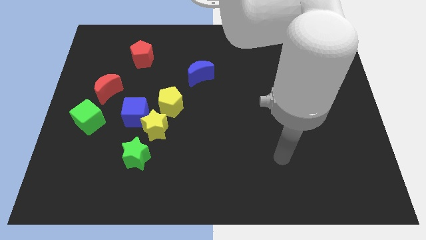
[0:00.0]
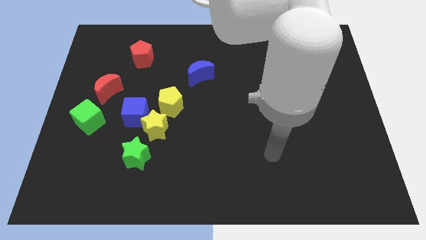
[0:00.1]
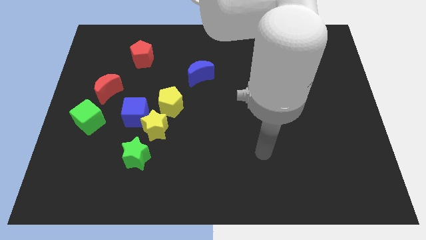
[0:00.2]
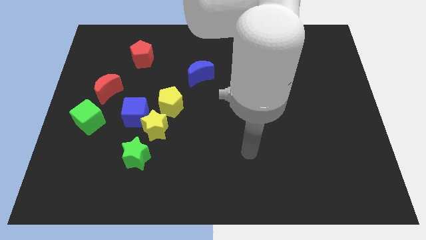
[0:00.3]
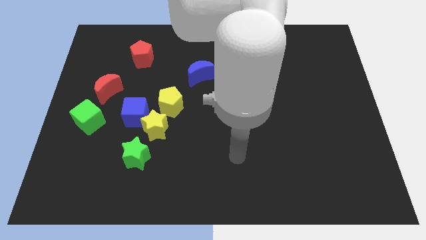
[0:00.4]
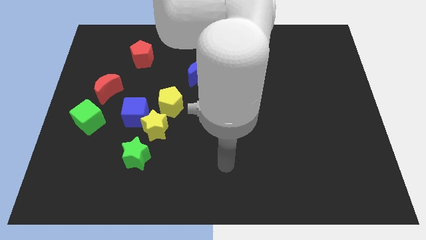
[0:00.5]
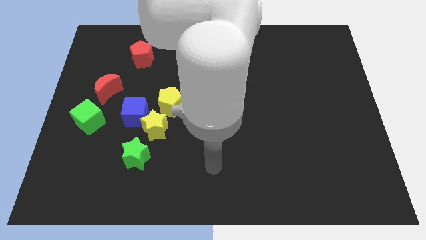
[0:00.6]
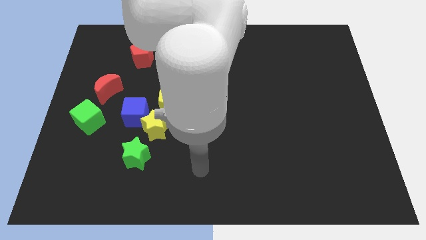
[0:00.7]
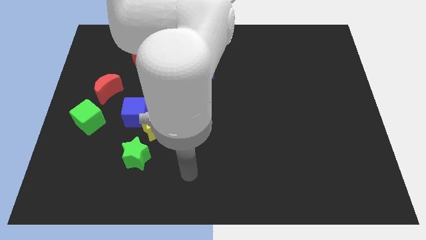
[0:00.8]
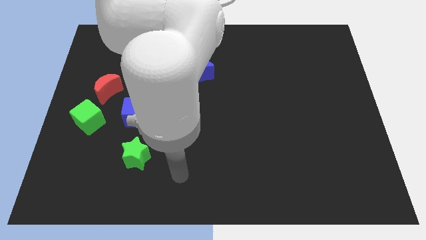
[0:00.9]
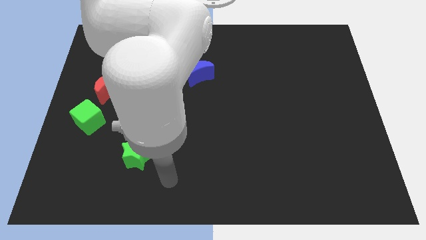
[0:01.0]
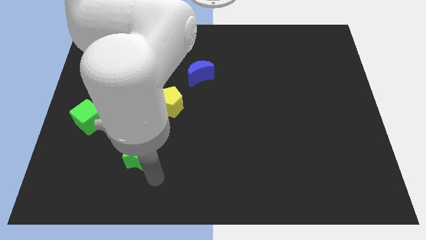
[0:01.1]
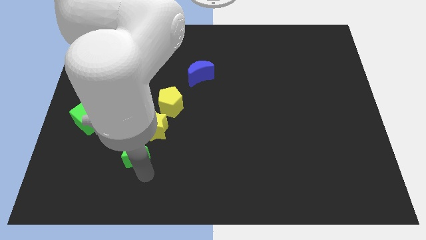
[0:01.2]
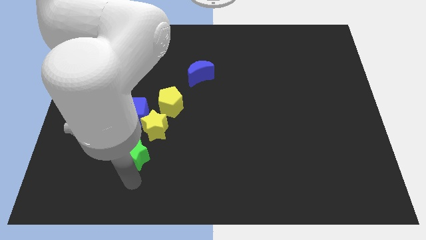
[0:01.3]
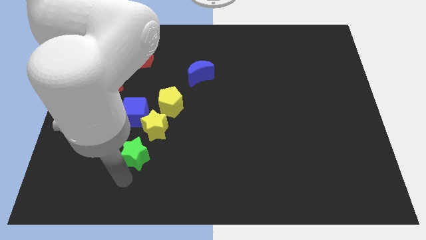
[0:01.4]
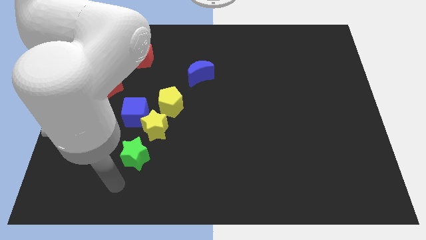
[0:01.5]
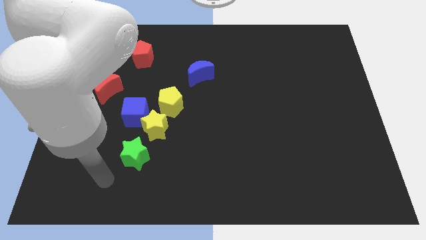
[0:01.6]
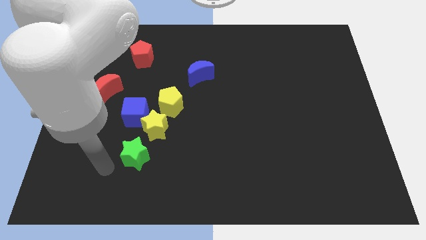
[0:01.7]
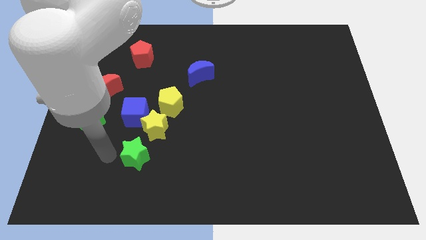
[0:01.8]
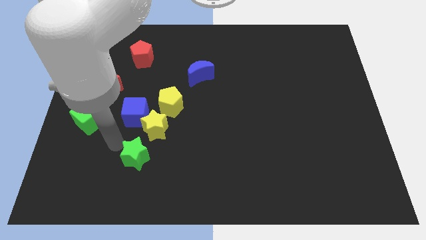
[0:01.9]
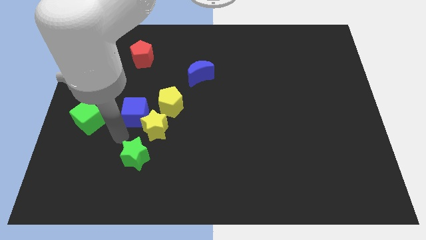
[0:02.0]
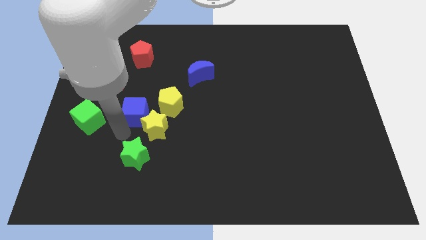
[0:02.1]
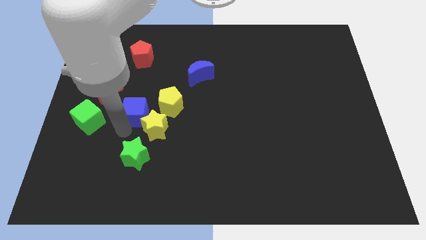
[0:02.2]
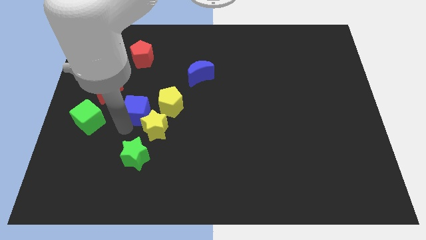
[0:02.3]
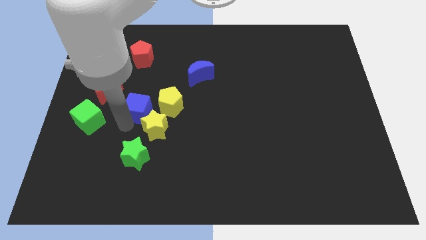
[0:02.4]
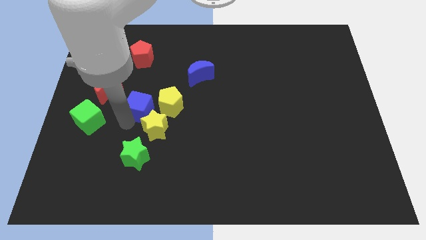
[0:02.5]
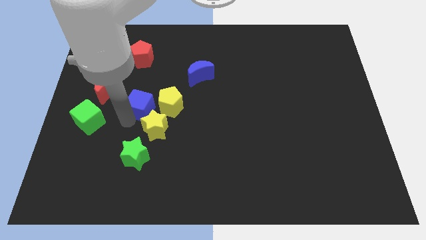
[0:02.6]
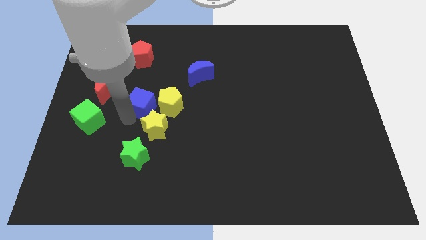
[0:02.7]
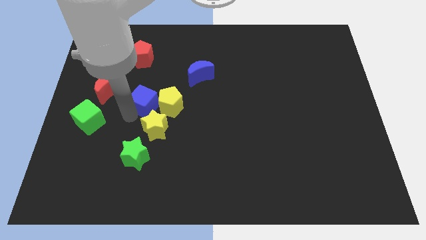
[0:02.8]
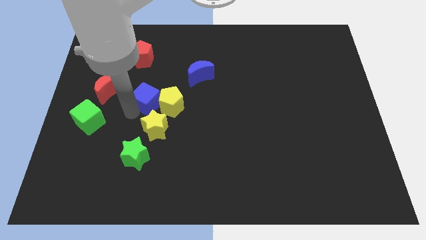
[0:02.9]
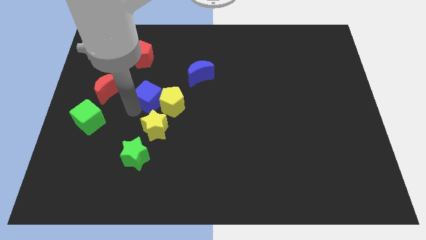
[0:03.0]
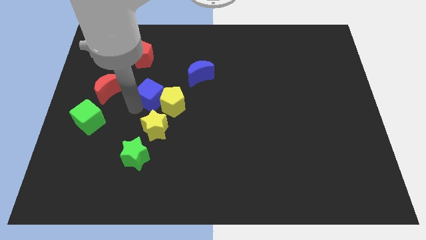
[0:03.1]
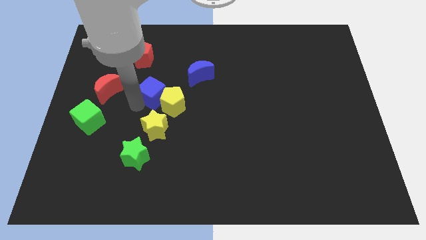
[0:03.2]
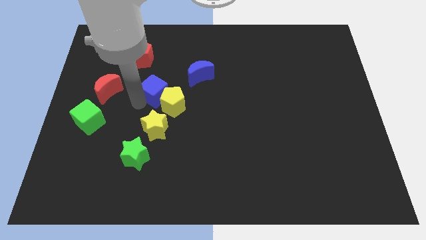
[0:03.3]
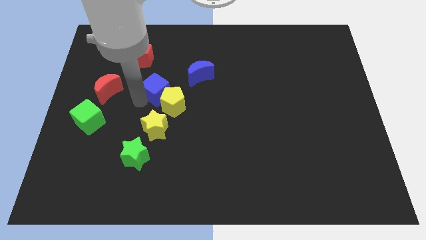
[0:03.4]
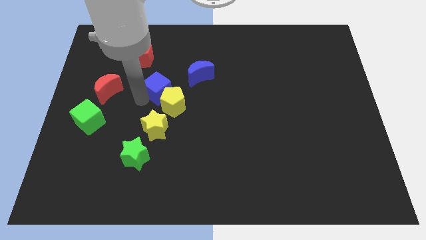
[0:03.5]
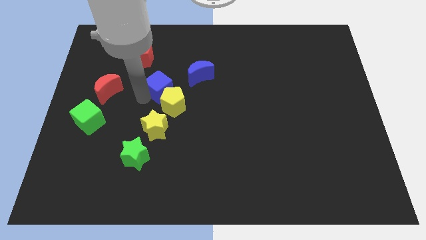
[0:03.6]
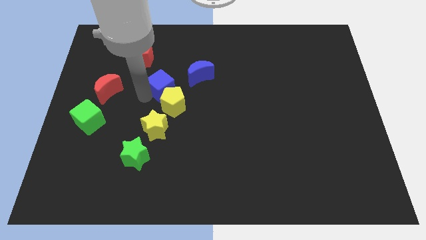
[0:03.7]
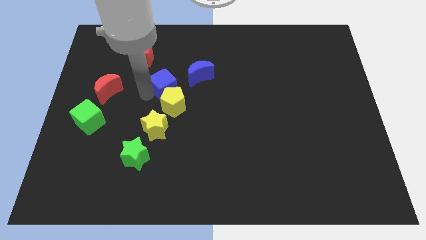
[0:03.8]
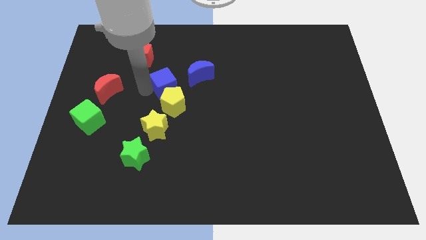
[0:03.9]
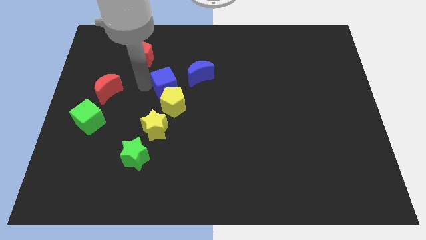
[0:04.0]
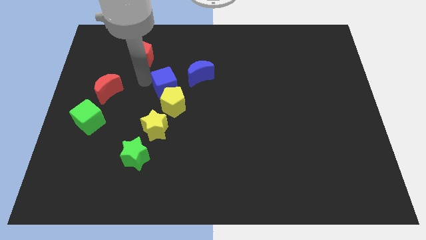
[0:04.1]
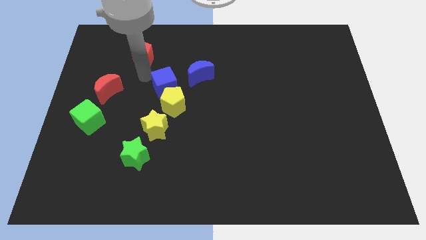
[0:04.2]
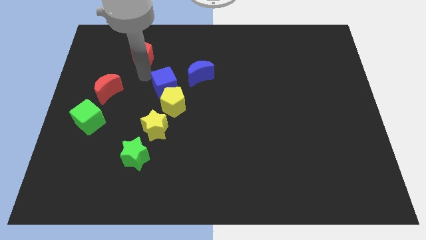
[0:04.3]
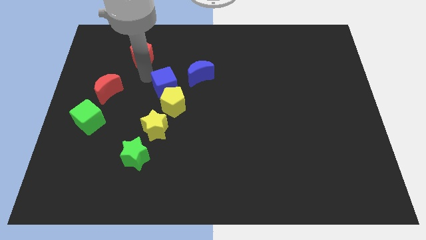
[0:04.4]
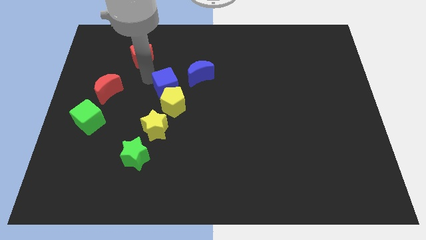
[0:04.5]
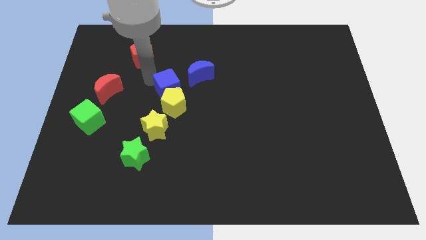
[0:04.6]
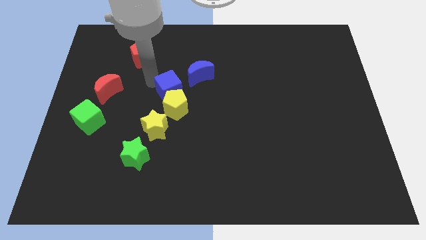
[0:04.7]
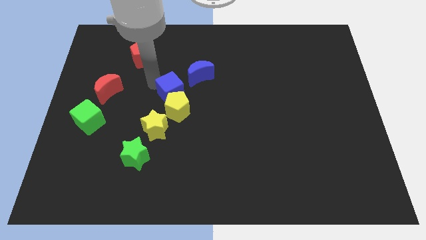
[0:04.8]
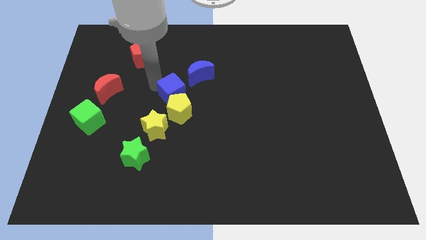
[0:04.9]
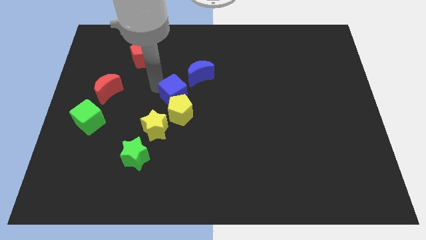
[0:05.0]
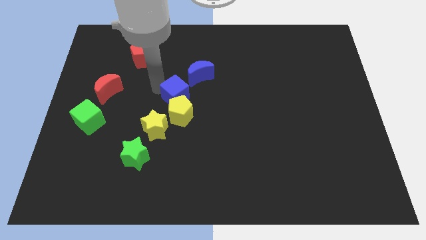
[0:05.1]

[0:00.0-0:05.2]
put the blue cube to the top right side of the yellow star

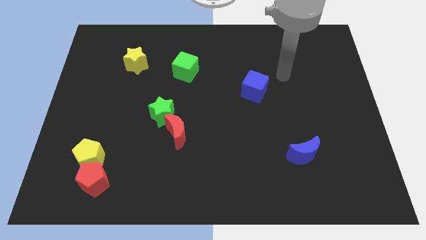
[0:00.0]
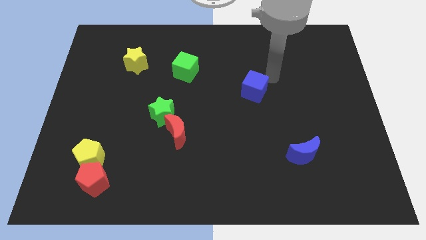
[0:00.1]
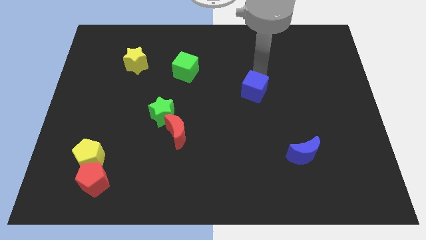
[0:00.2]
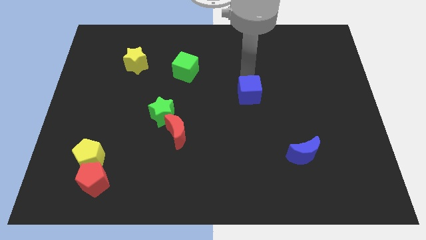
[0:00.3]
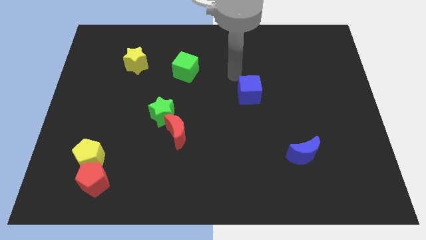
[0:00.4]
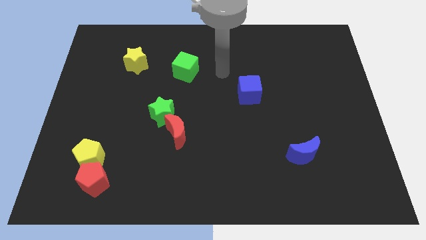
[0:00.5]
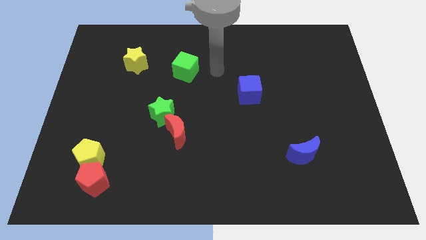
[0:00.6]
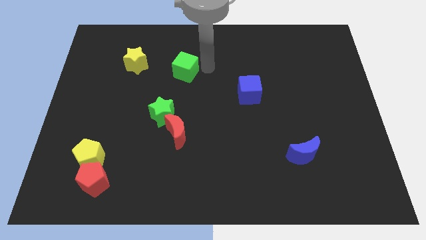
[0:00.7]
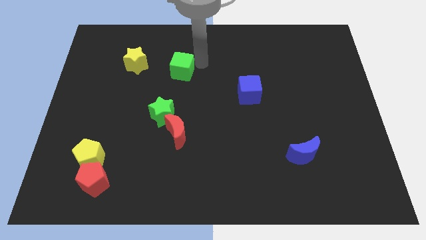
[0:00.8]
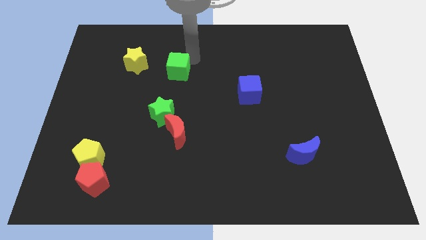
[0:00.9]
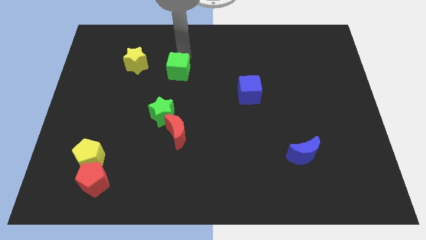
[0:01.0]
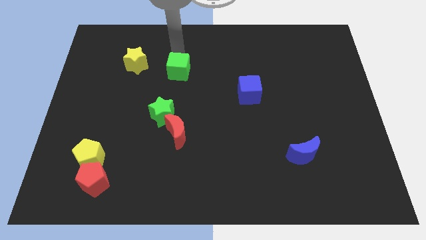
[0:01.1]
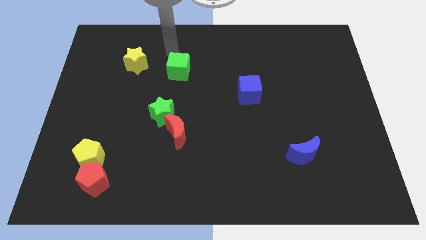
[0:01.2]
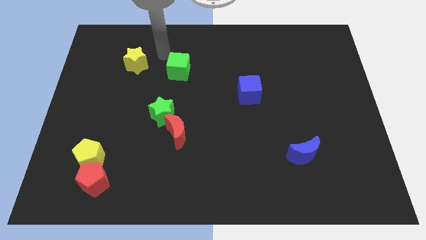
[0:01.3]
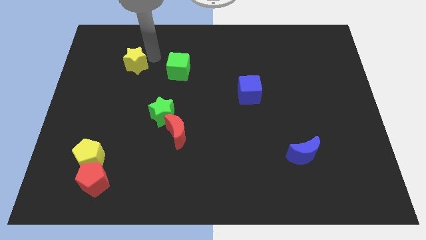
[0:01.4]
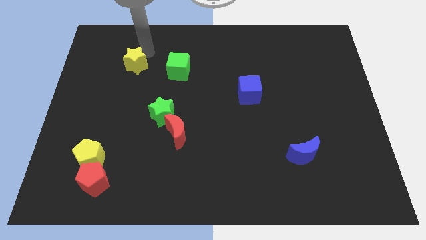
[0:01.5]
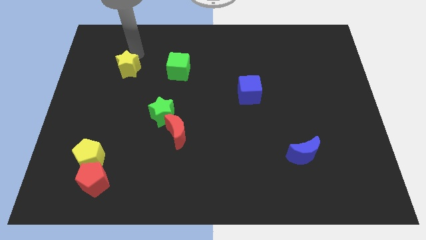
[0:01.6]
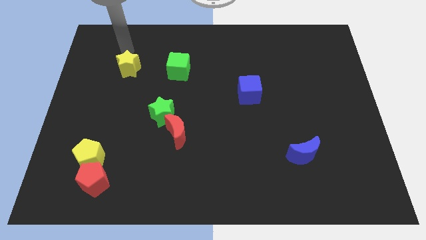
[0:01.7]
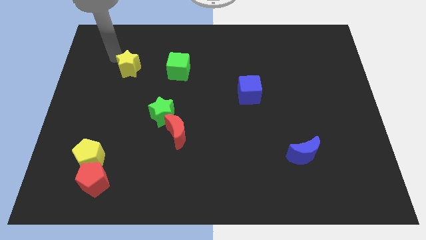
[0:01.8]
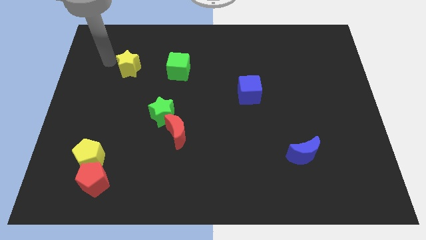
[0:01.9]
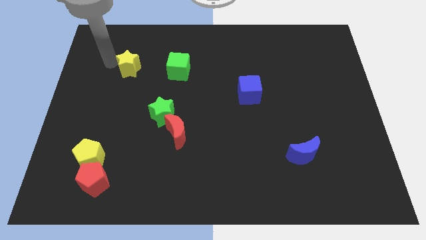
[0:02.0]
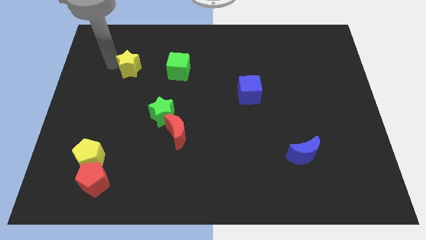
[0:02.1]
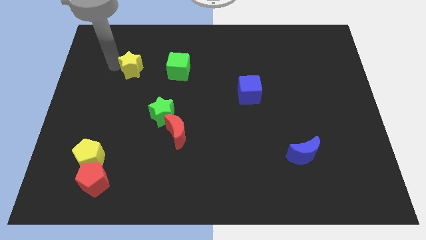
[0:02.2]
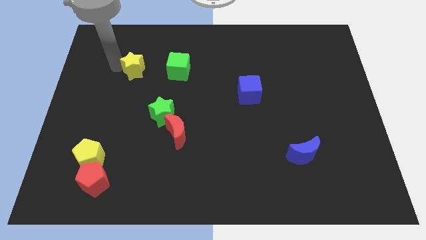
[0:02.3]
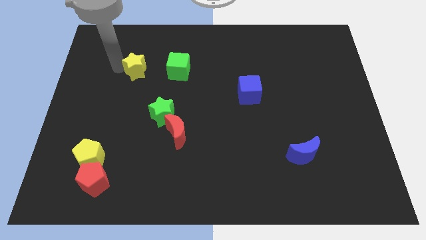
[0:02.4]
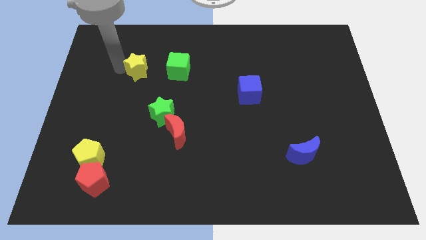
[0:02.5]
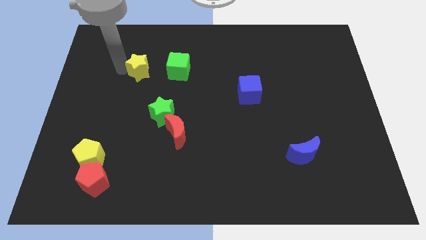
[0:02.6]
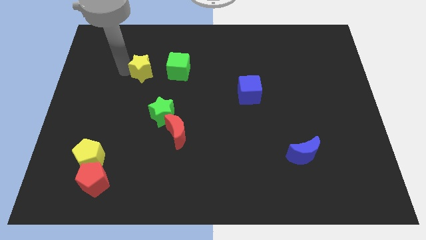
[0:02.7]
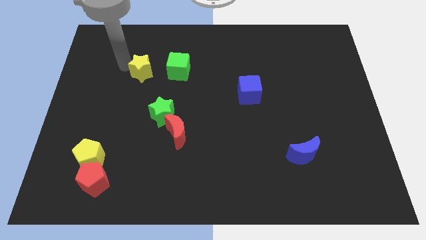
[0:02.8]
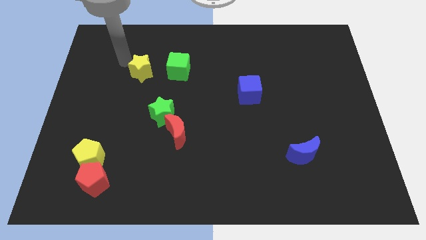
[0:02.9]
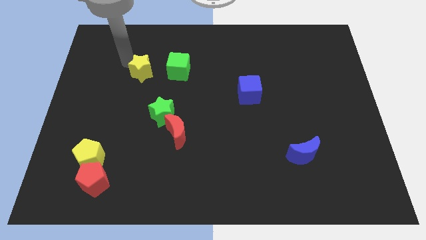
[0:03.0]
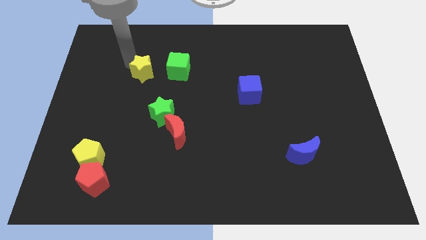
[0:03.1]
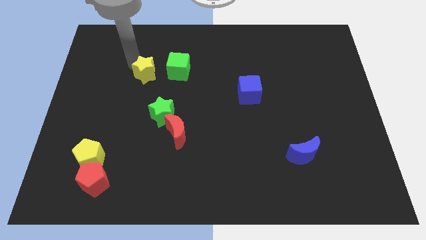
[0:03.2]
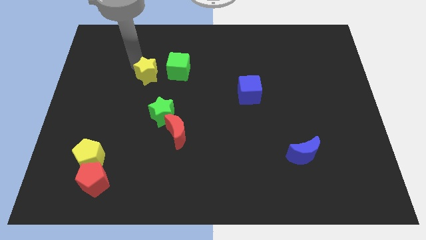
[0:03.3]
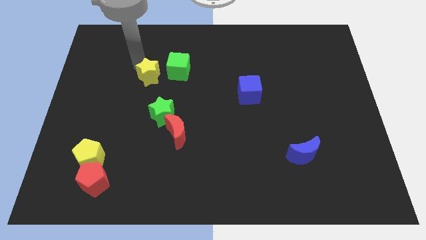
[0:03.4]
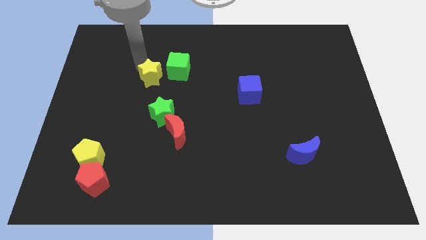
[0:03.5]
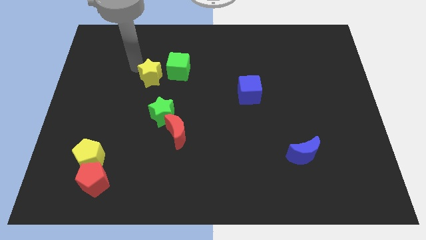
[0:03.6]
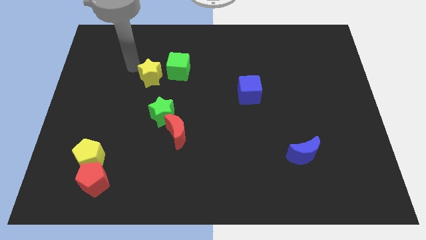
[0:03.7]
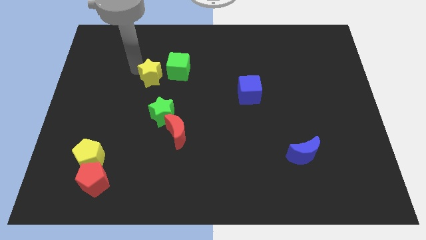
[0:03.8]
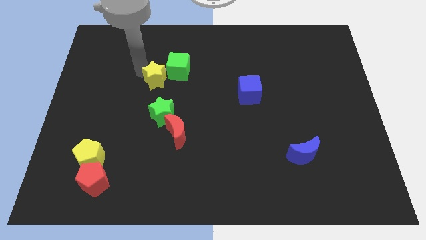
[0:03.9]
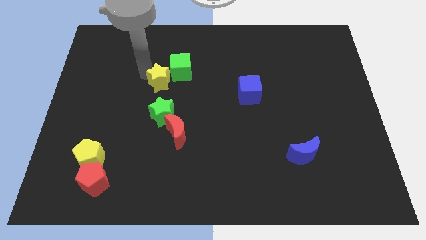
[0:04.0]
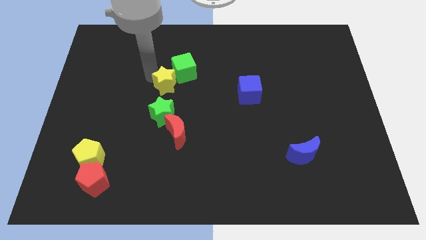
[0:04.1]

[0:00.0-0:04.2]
slide the yellow star above the red moon
